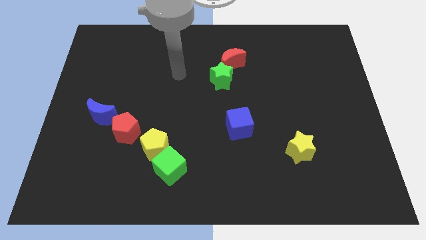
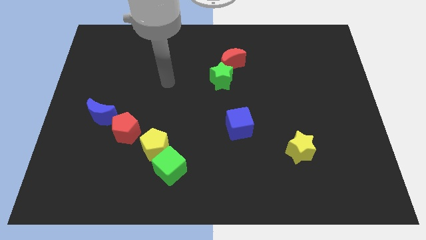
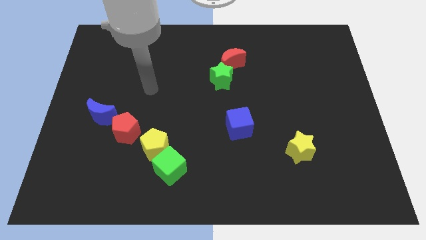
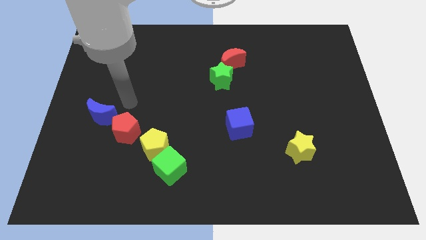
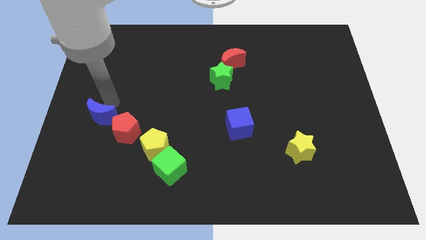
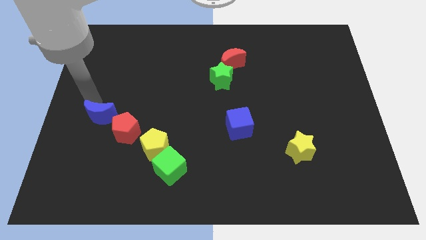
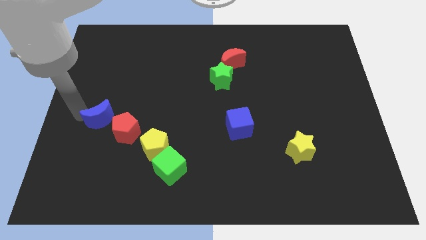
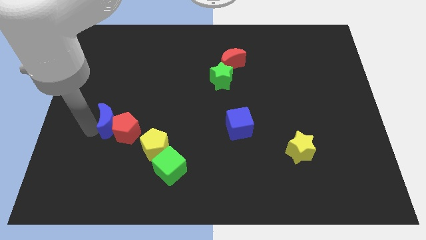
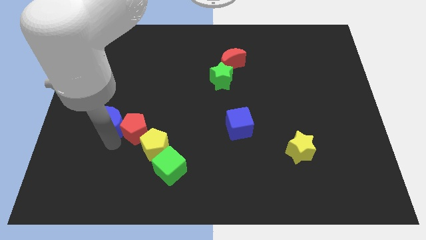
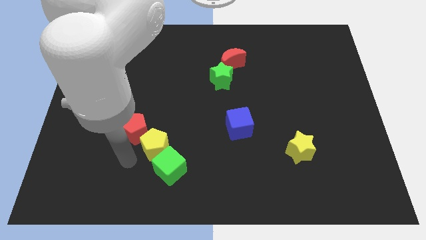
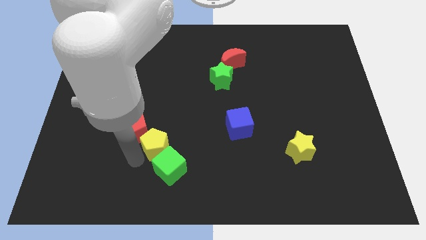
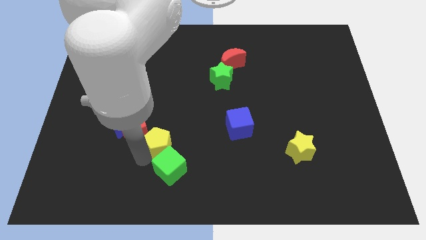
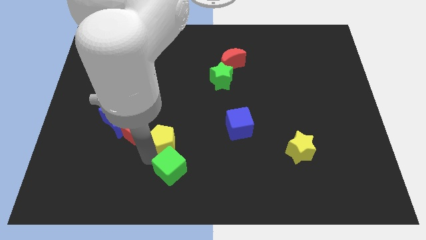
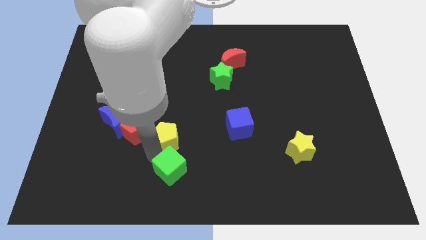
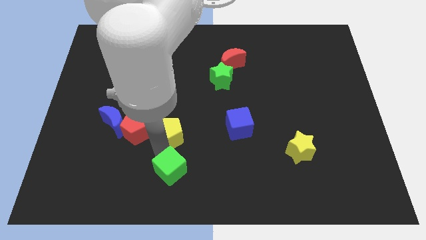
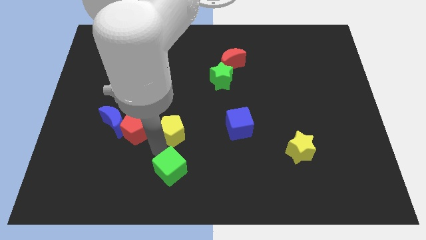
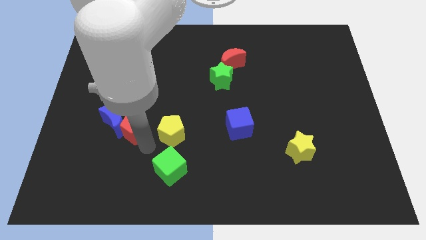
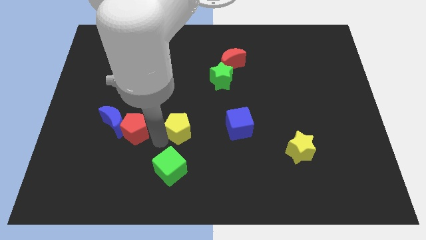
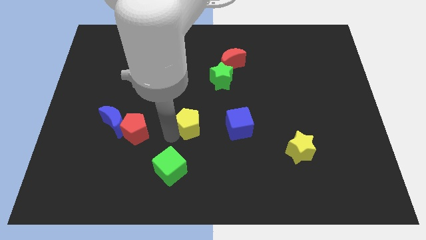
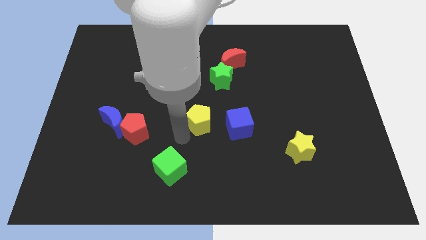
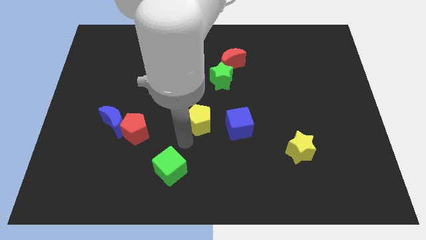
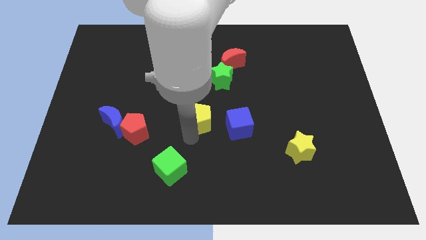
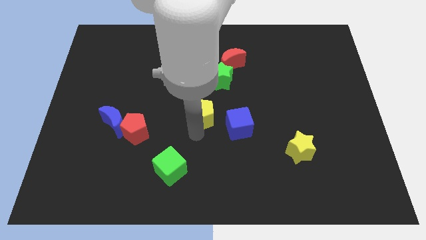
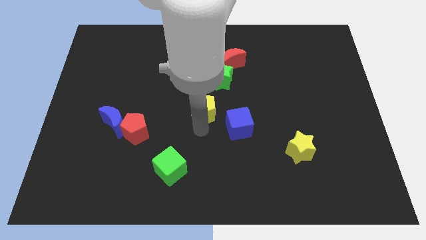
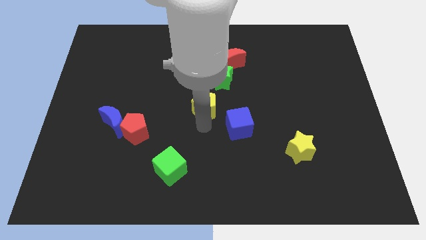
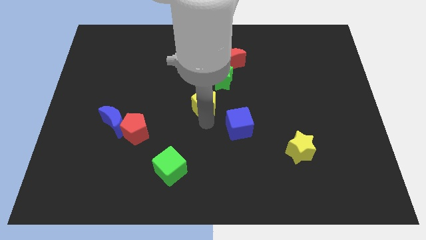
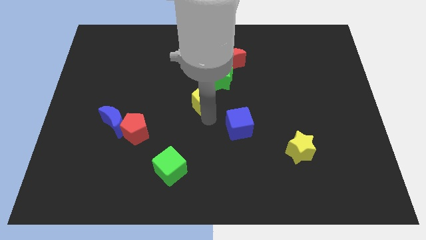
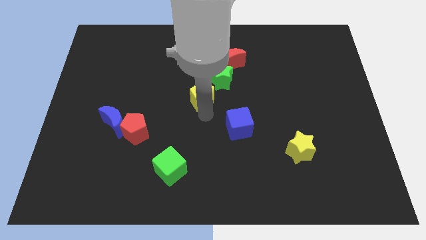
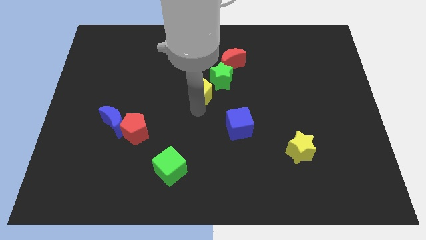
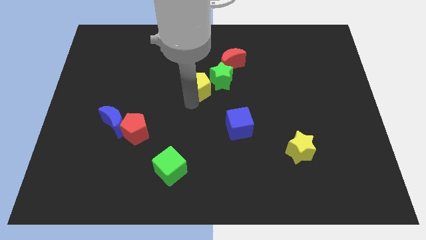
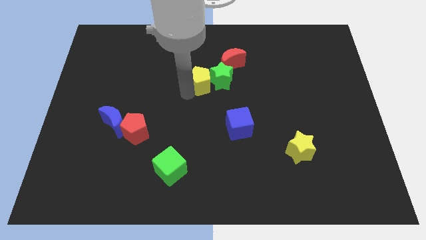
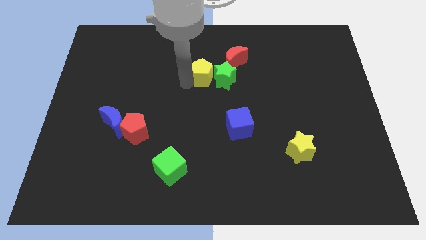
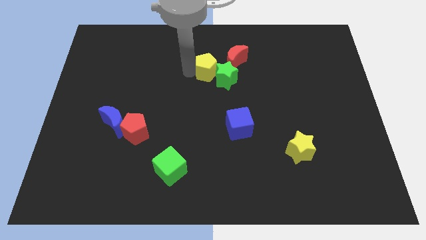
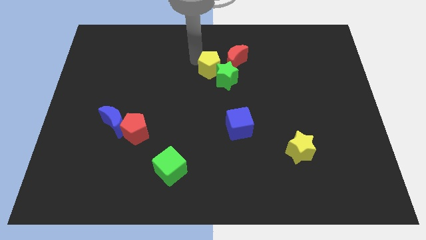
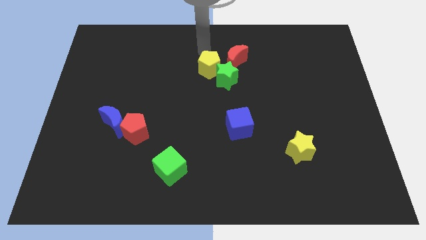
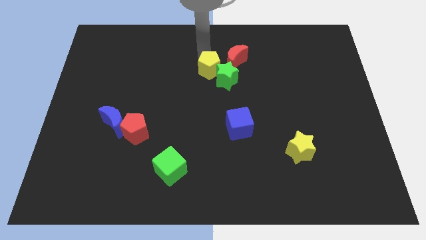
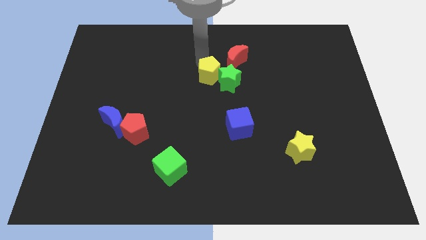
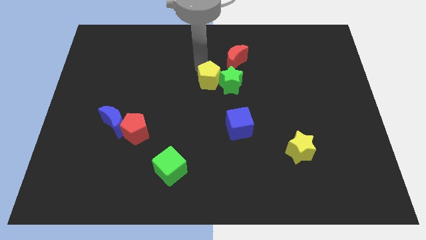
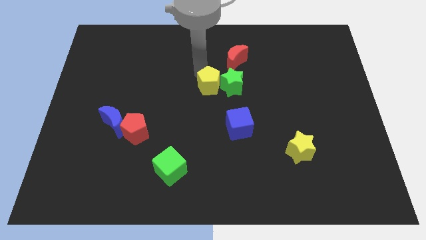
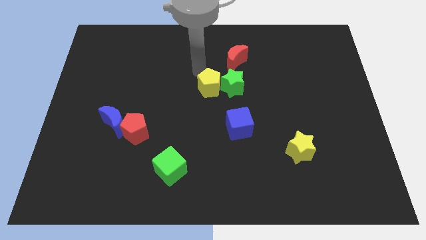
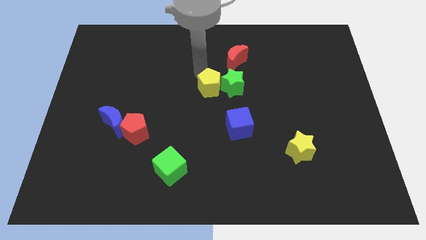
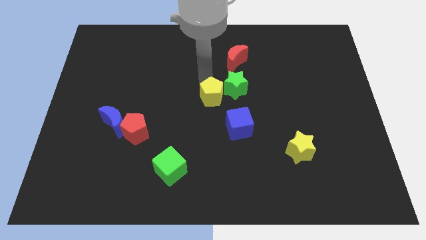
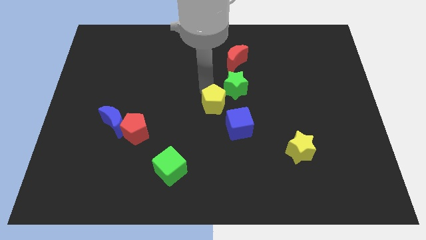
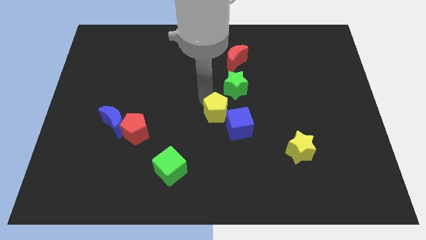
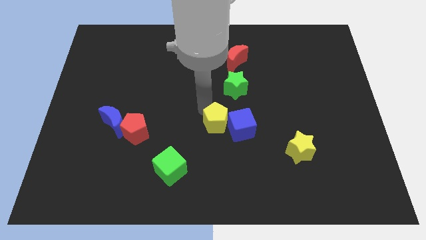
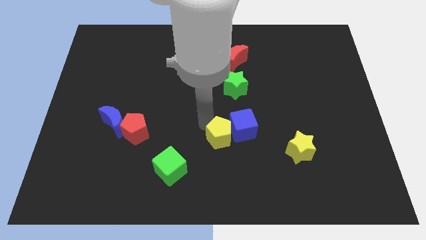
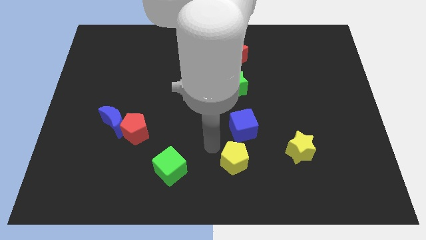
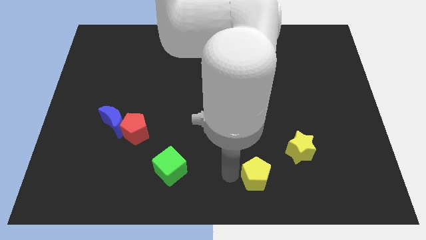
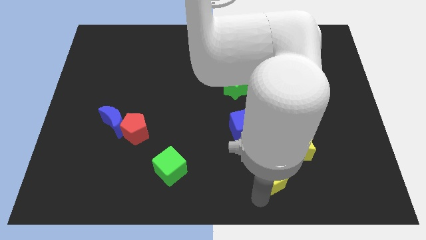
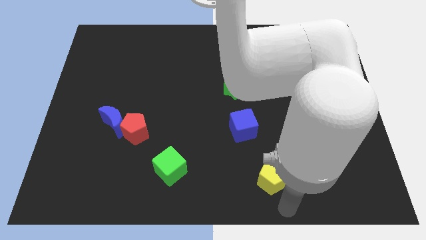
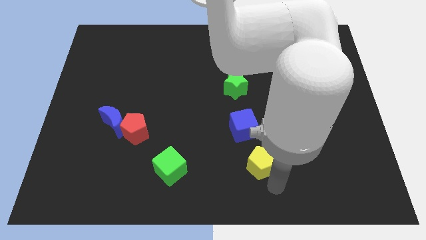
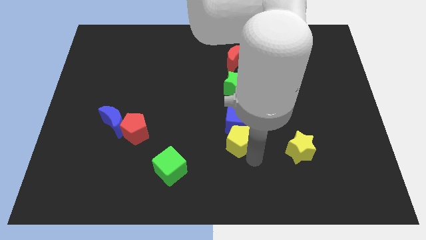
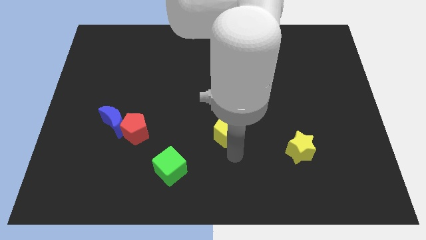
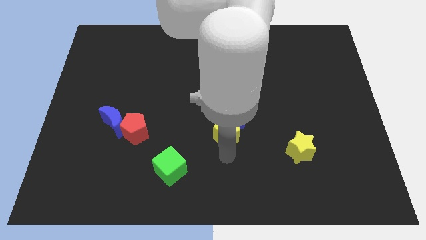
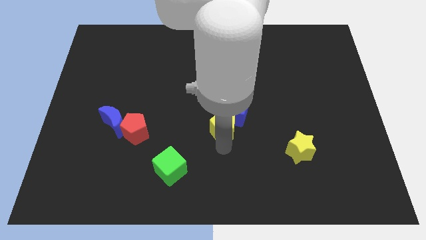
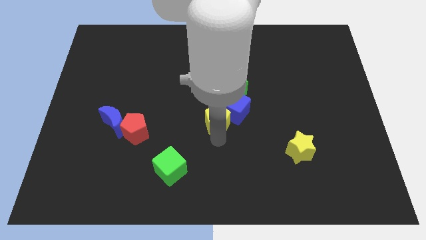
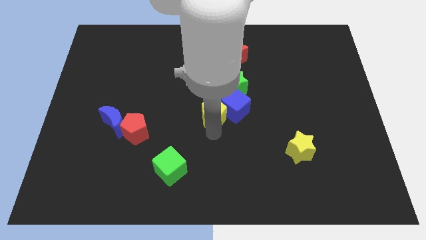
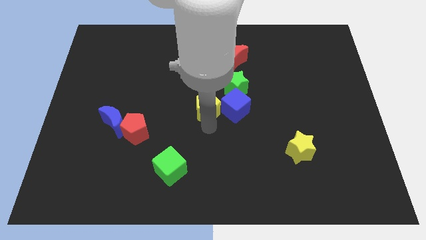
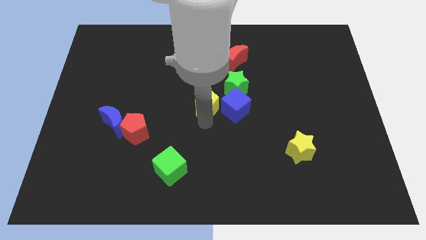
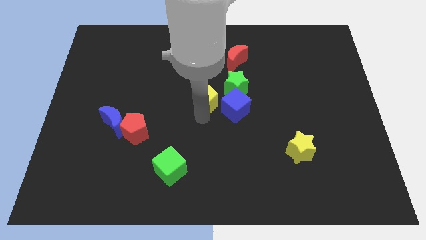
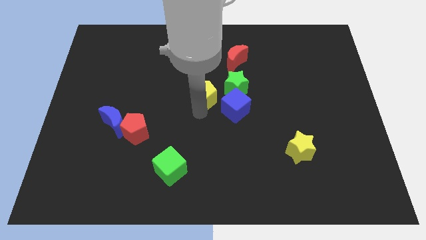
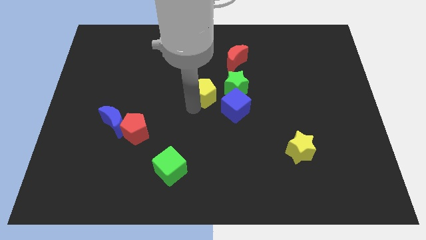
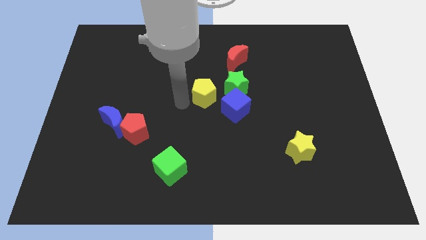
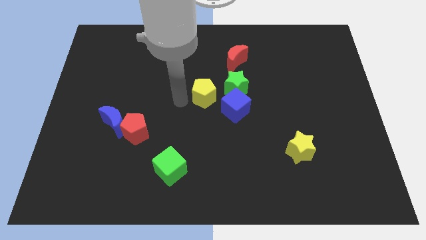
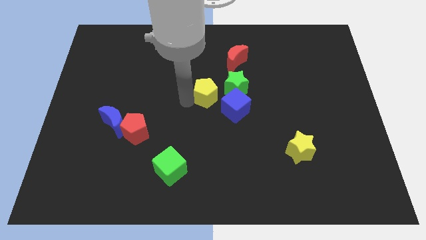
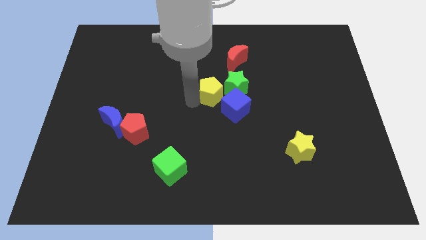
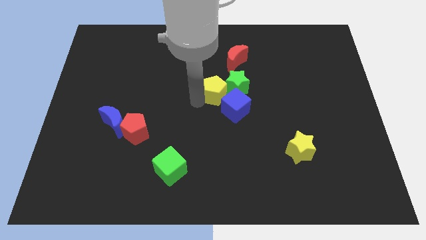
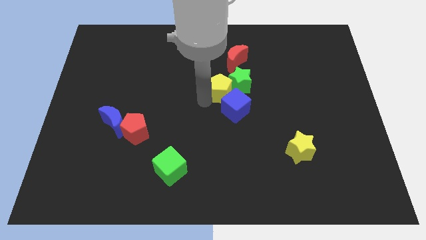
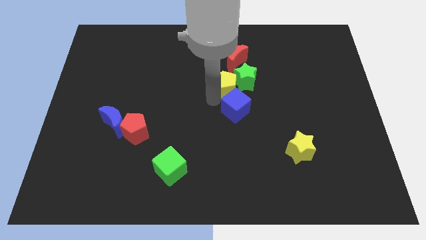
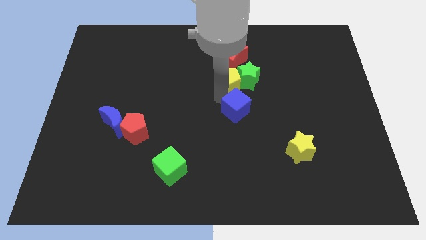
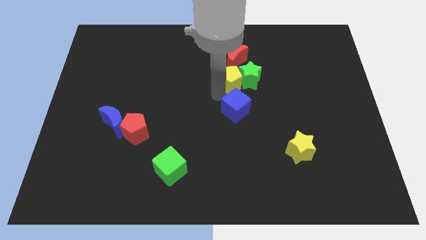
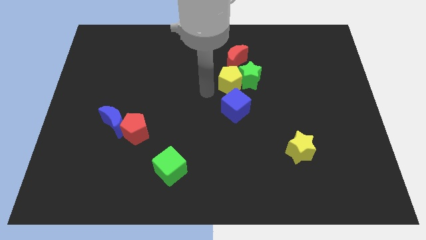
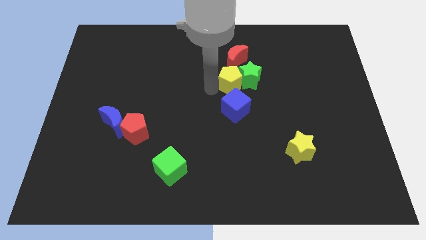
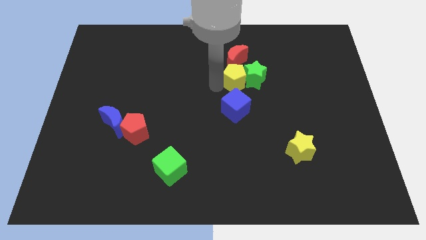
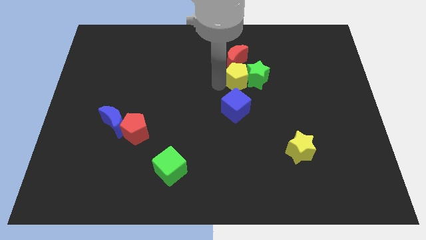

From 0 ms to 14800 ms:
put the yellow pentagon to the bottom right of the red moon
